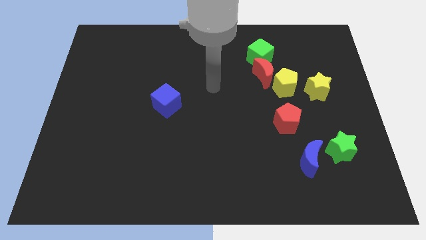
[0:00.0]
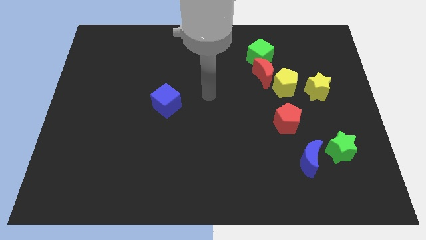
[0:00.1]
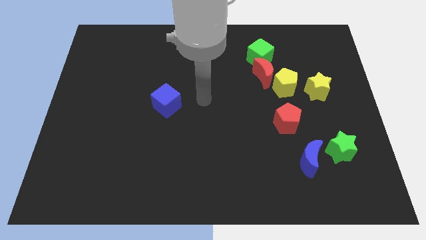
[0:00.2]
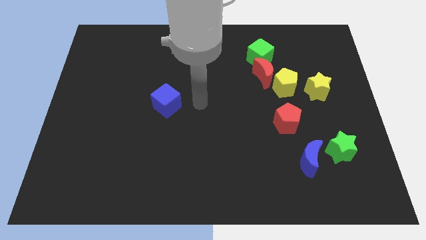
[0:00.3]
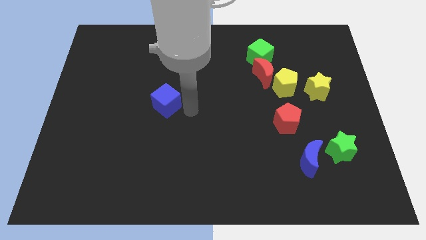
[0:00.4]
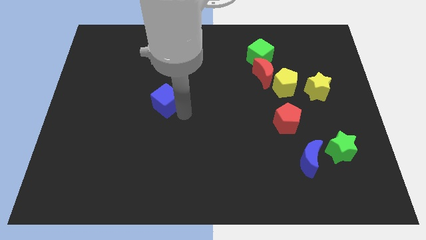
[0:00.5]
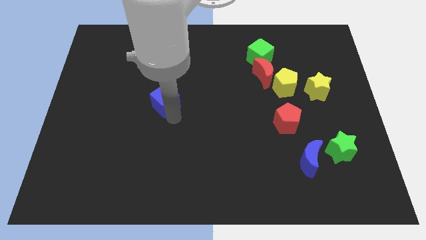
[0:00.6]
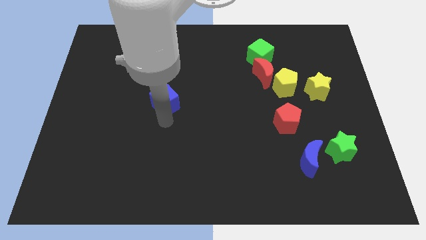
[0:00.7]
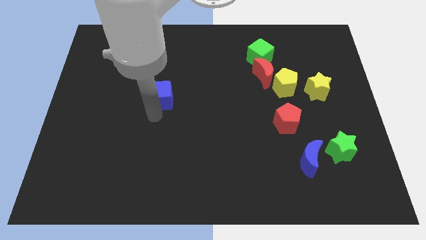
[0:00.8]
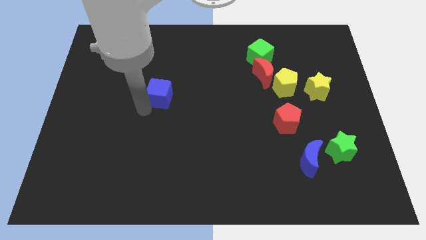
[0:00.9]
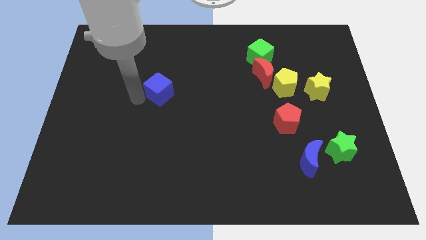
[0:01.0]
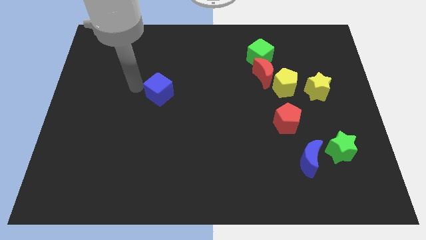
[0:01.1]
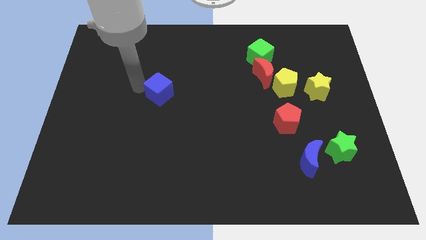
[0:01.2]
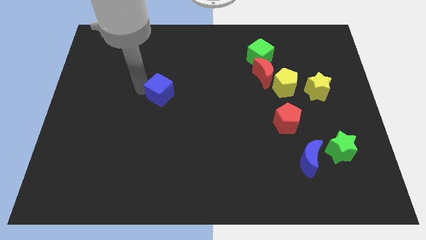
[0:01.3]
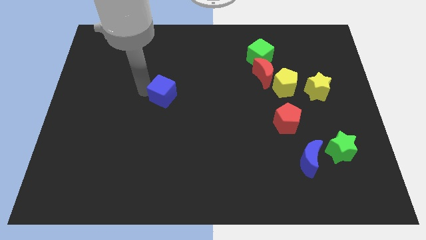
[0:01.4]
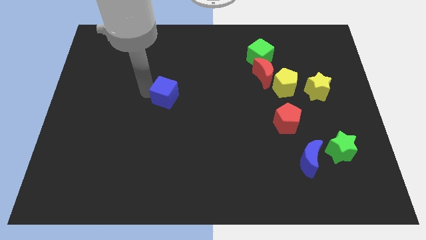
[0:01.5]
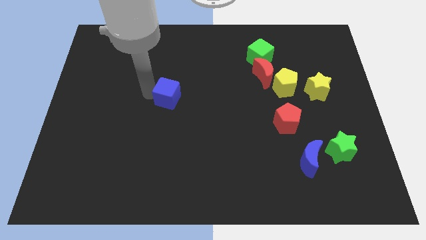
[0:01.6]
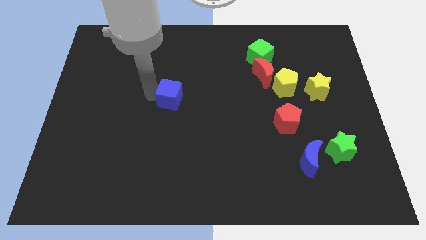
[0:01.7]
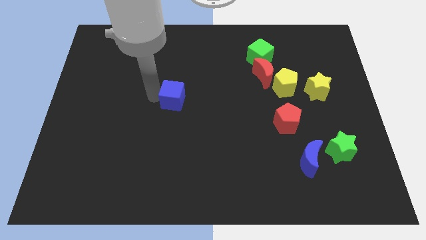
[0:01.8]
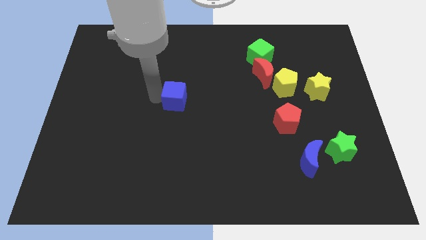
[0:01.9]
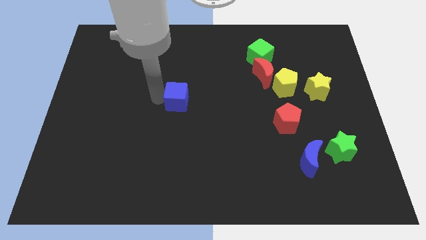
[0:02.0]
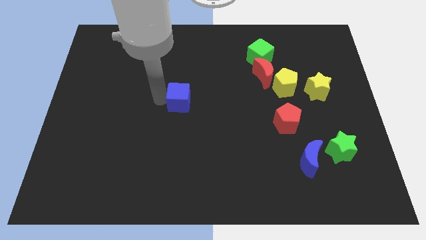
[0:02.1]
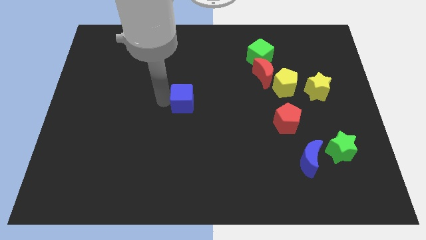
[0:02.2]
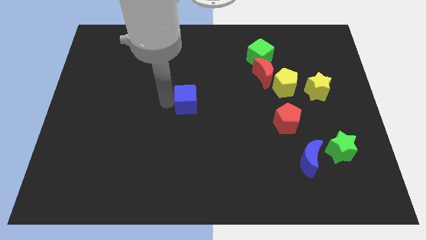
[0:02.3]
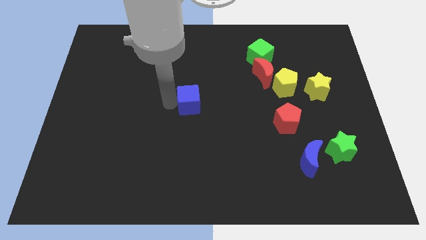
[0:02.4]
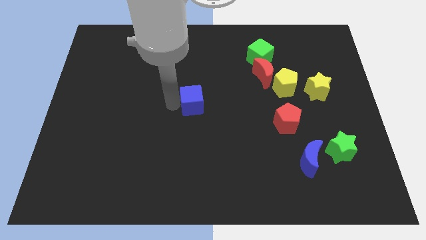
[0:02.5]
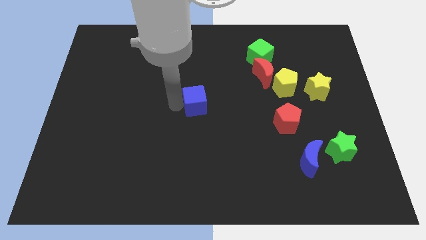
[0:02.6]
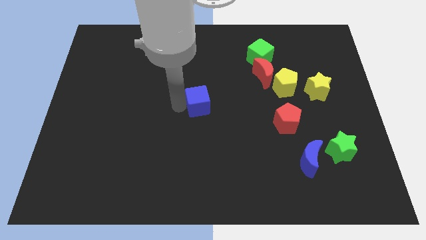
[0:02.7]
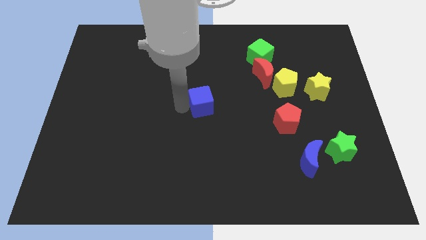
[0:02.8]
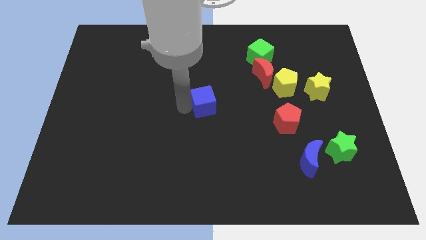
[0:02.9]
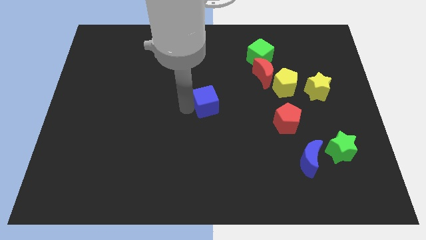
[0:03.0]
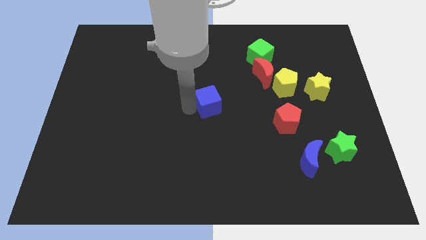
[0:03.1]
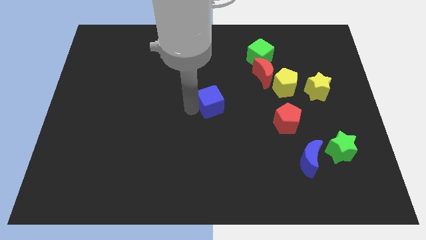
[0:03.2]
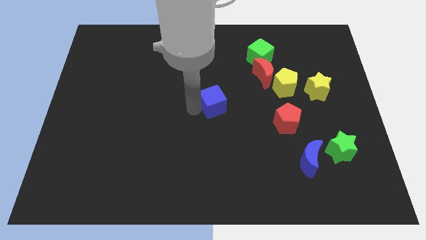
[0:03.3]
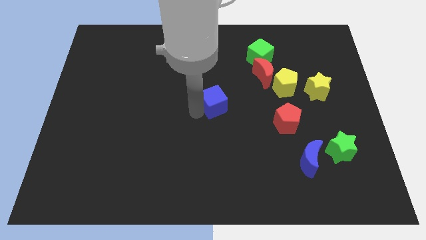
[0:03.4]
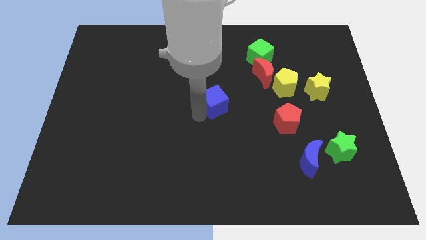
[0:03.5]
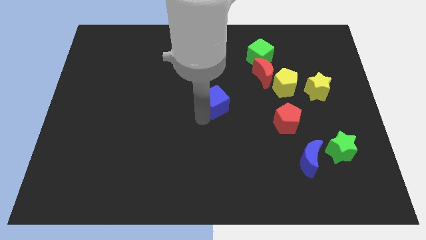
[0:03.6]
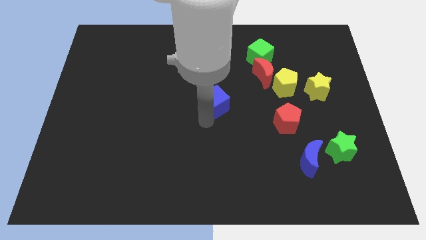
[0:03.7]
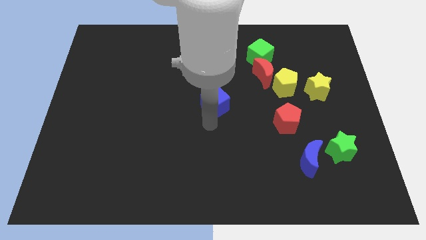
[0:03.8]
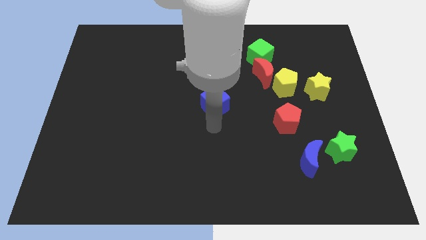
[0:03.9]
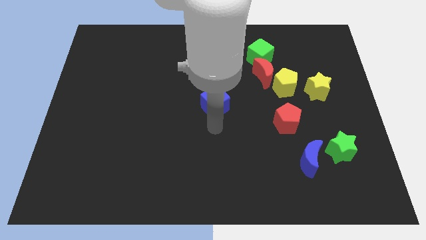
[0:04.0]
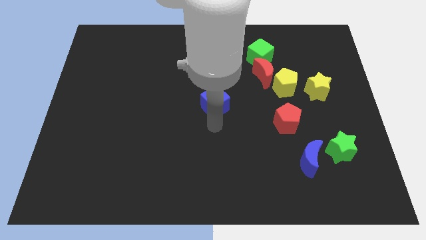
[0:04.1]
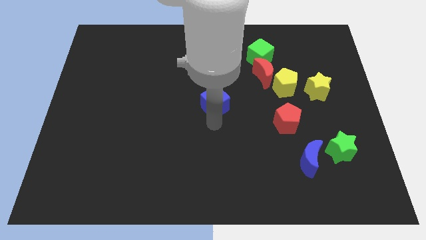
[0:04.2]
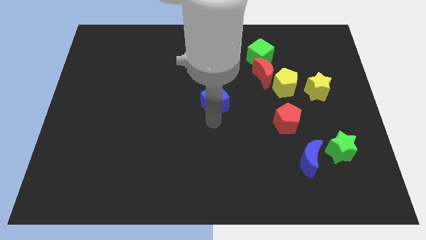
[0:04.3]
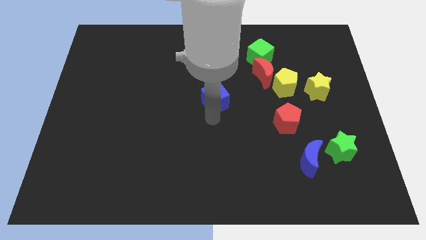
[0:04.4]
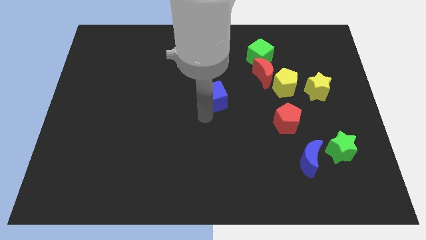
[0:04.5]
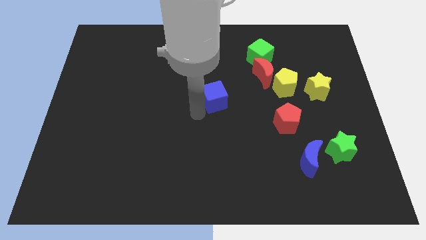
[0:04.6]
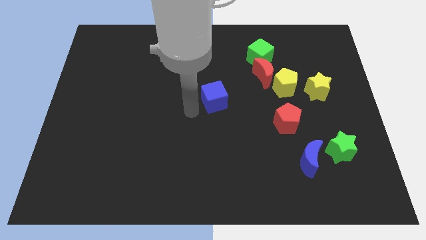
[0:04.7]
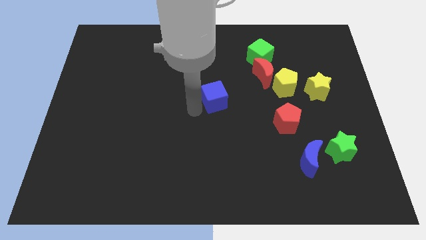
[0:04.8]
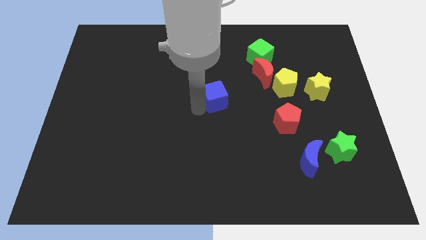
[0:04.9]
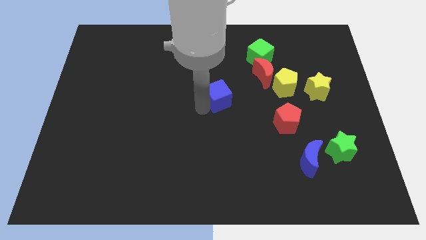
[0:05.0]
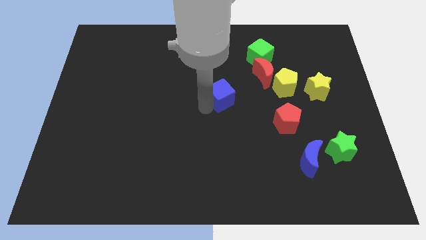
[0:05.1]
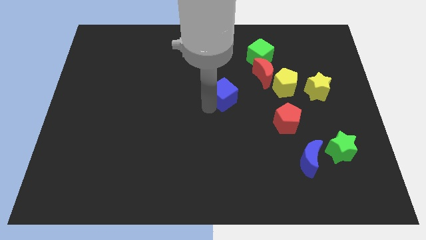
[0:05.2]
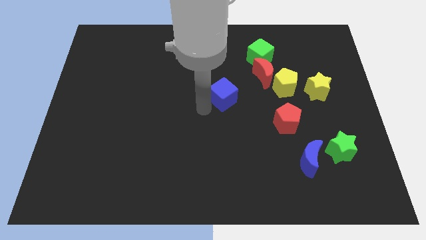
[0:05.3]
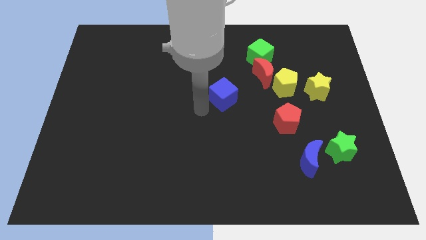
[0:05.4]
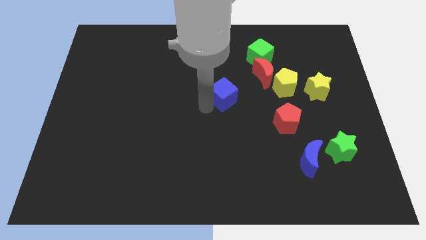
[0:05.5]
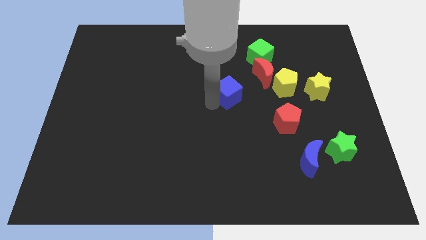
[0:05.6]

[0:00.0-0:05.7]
put the blue cube to the left side of the yellow pentagon

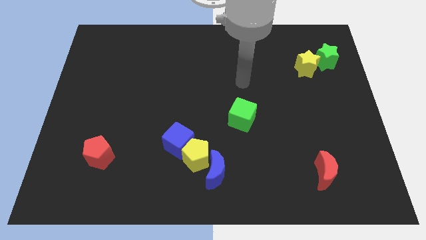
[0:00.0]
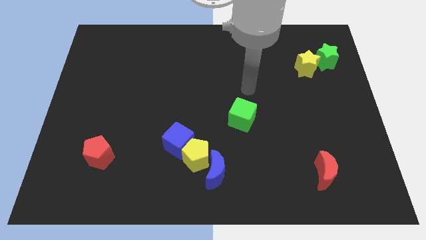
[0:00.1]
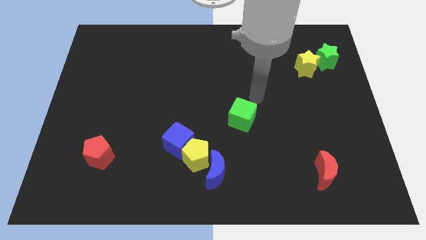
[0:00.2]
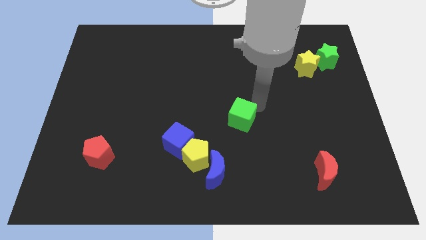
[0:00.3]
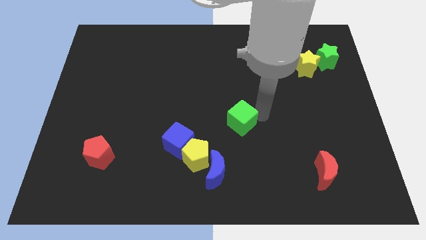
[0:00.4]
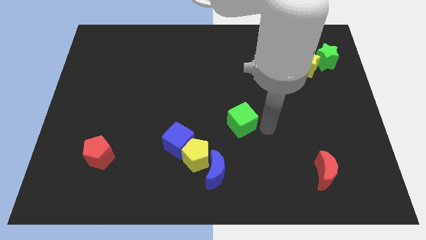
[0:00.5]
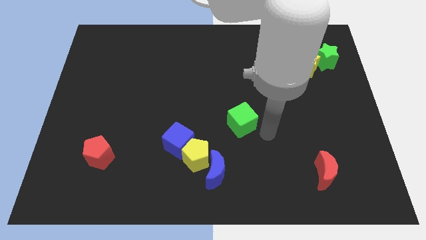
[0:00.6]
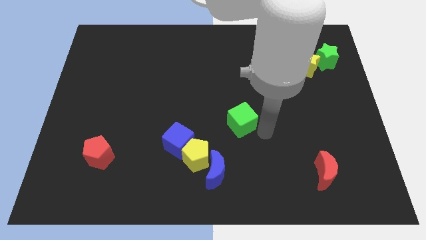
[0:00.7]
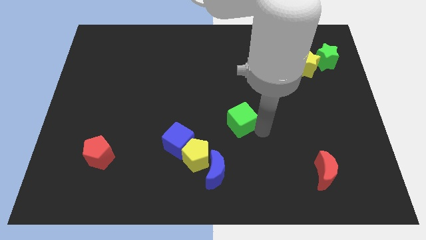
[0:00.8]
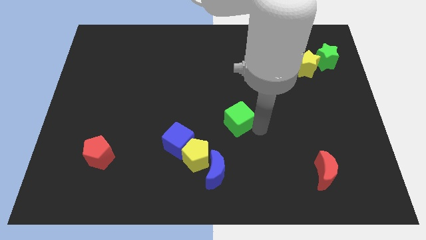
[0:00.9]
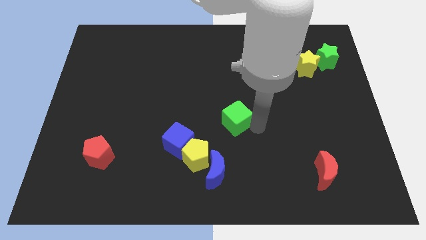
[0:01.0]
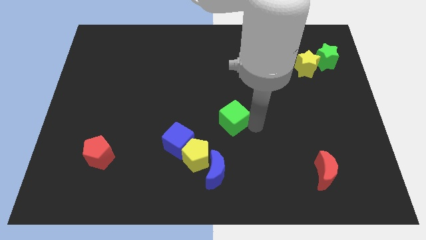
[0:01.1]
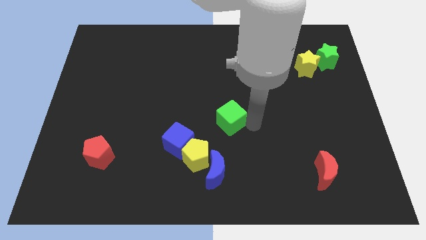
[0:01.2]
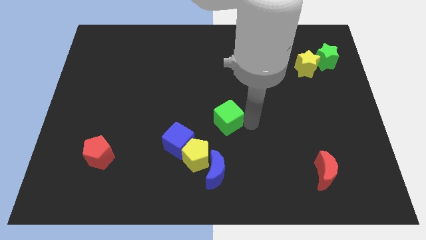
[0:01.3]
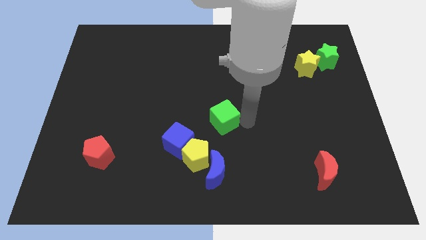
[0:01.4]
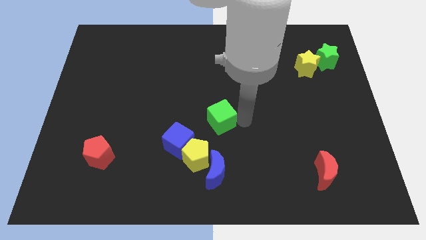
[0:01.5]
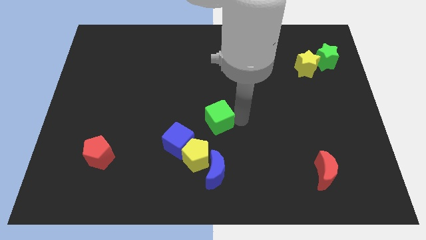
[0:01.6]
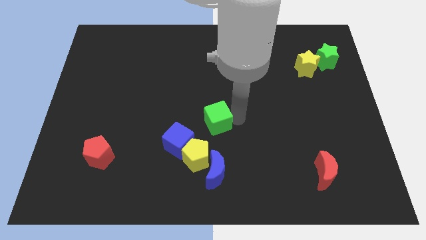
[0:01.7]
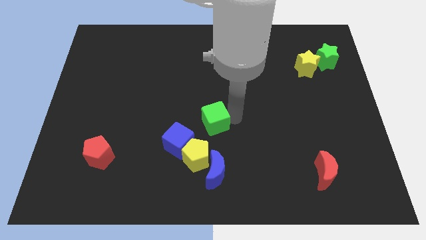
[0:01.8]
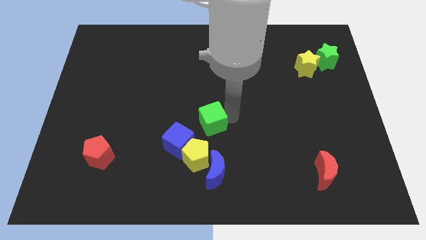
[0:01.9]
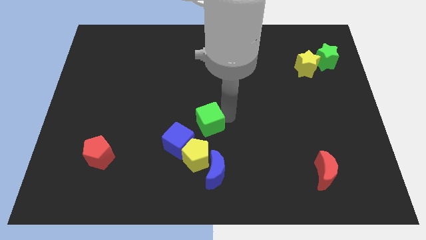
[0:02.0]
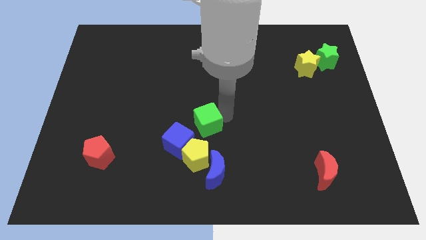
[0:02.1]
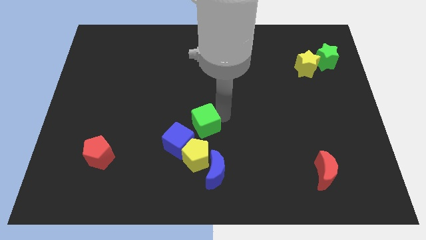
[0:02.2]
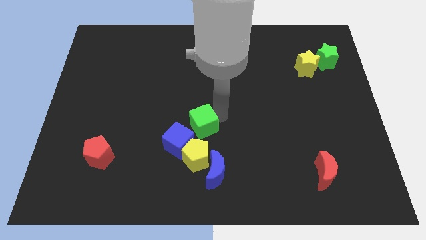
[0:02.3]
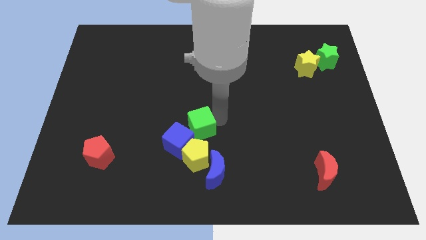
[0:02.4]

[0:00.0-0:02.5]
slide the green cube to the top of the blue cube
